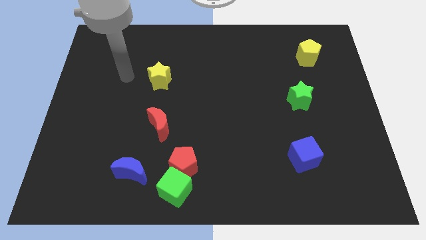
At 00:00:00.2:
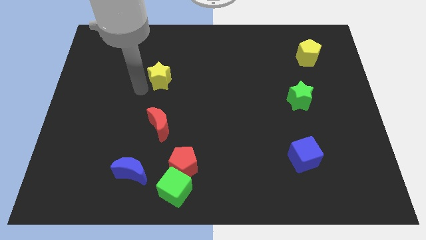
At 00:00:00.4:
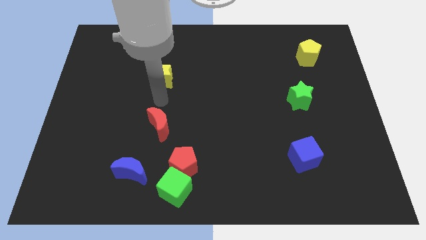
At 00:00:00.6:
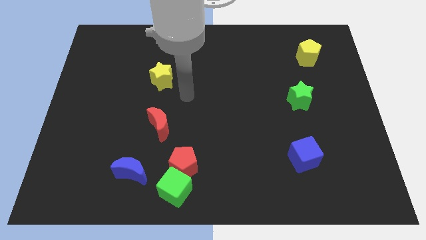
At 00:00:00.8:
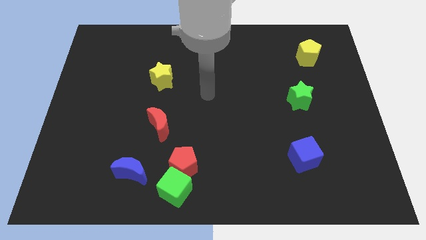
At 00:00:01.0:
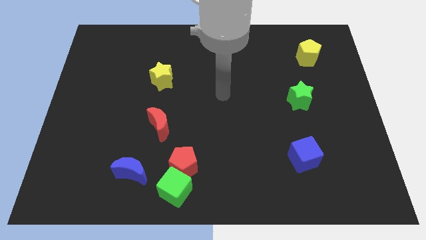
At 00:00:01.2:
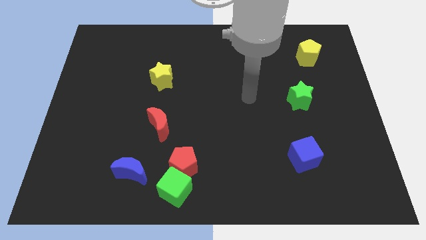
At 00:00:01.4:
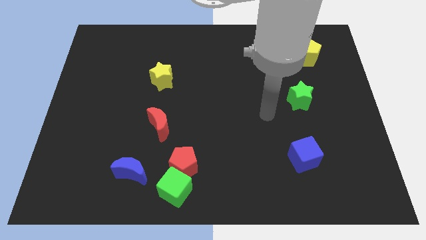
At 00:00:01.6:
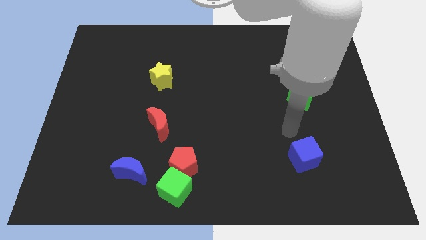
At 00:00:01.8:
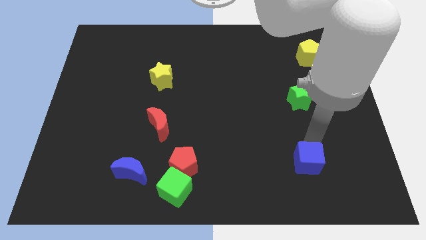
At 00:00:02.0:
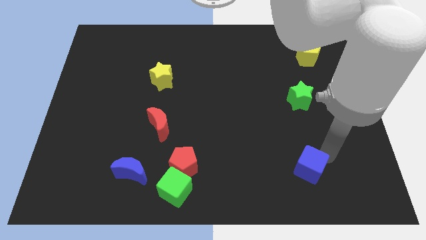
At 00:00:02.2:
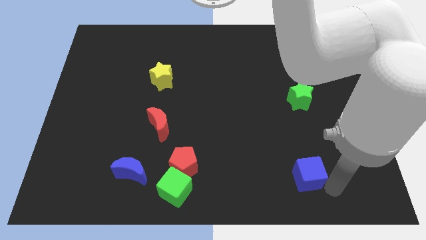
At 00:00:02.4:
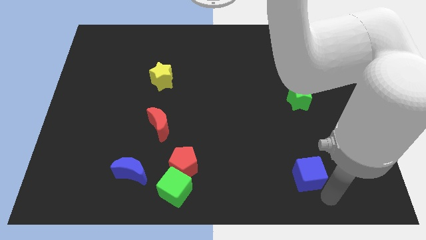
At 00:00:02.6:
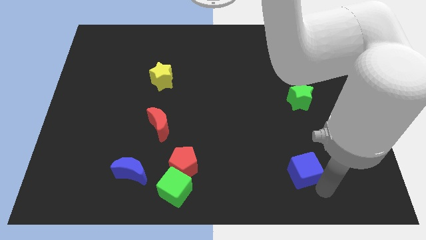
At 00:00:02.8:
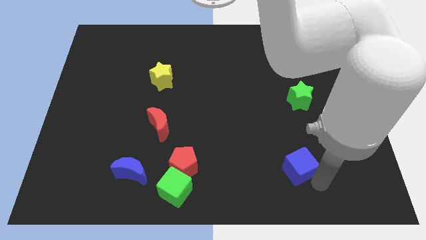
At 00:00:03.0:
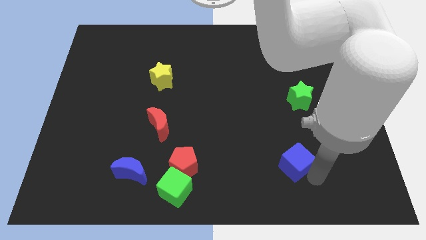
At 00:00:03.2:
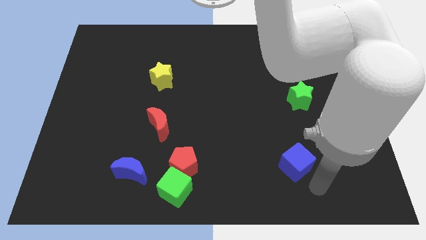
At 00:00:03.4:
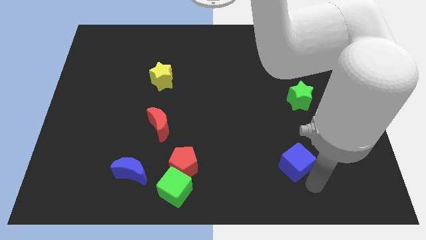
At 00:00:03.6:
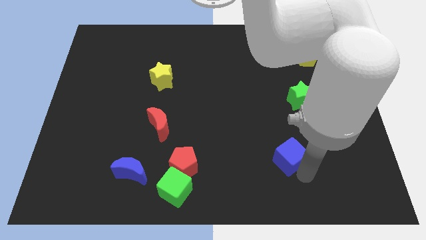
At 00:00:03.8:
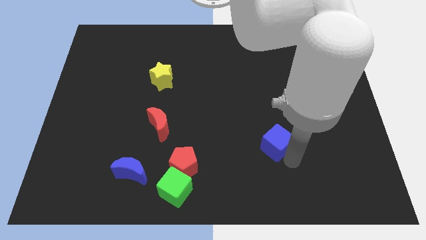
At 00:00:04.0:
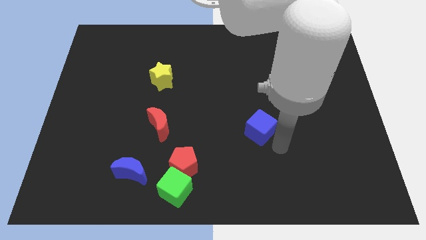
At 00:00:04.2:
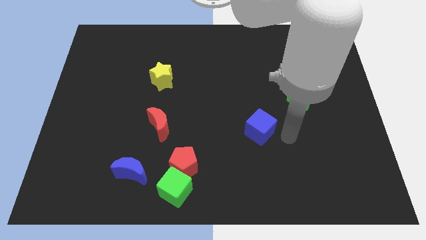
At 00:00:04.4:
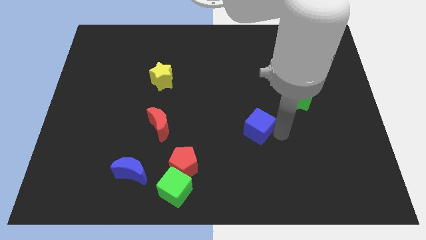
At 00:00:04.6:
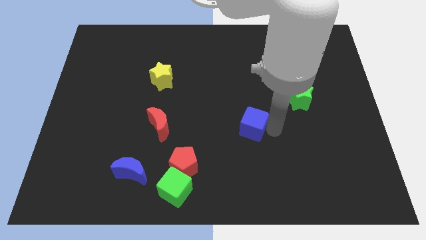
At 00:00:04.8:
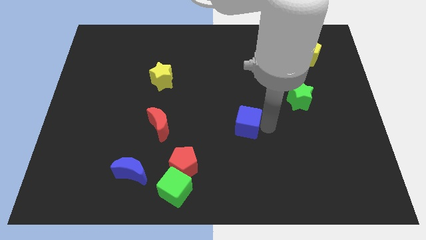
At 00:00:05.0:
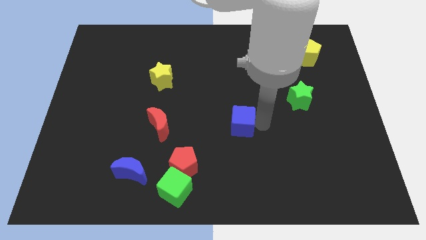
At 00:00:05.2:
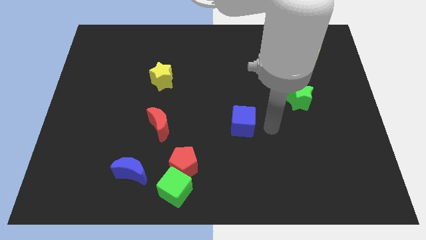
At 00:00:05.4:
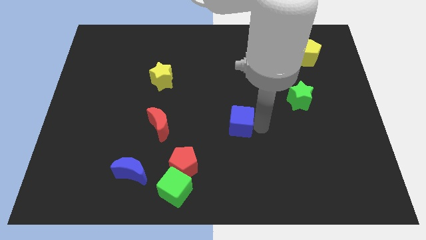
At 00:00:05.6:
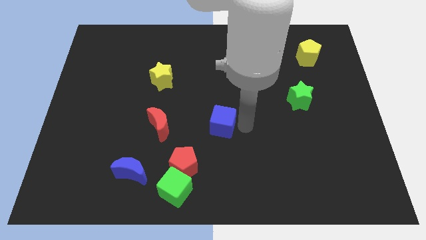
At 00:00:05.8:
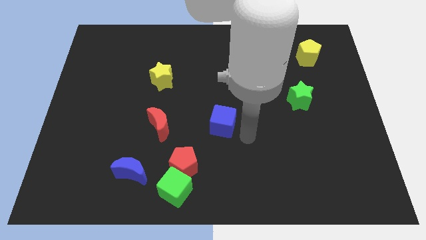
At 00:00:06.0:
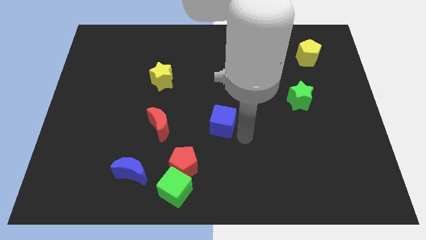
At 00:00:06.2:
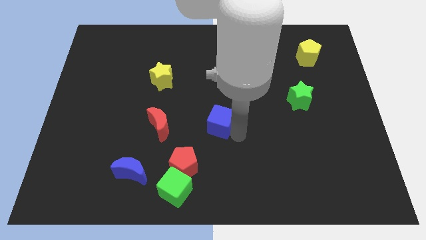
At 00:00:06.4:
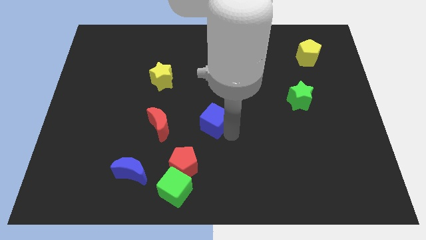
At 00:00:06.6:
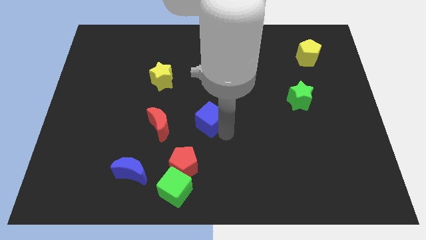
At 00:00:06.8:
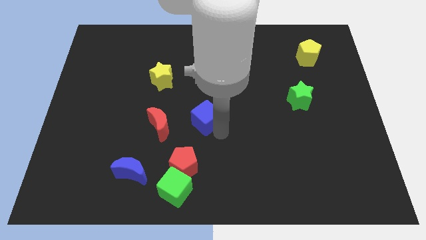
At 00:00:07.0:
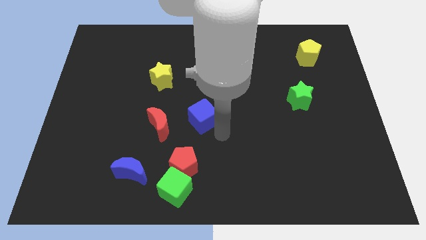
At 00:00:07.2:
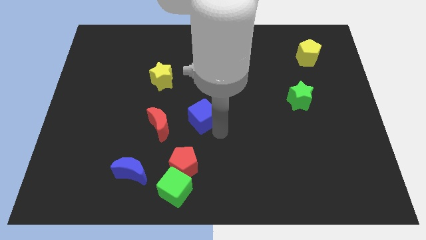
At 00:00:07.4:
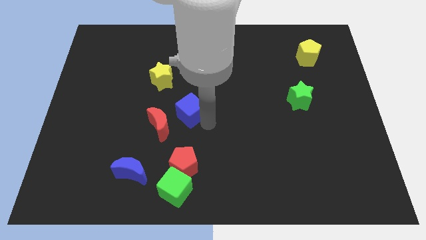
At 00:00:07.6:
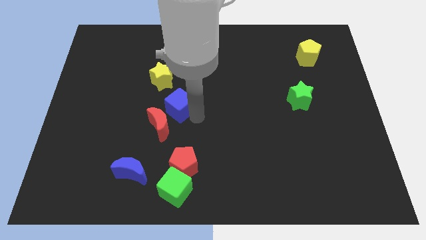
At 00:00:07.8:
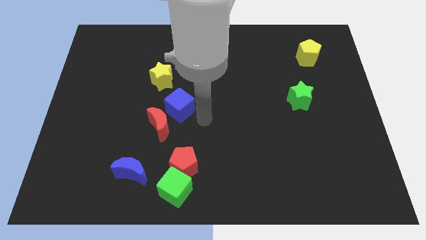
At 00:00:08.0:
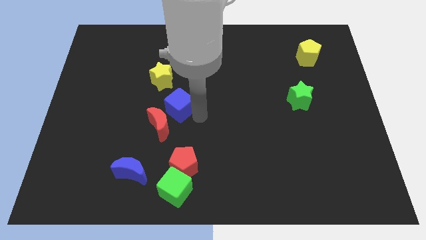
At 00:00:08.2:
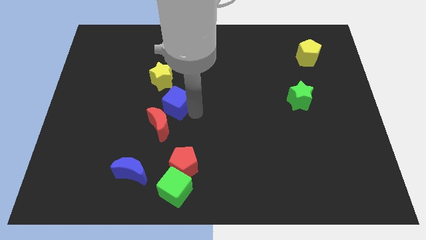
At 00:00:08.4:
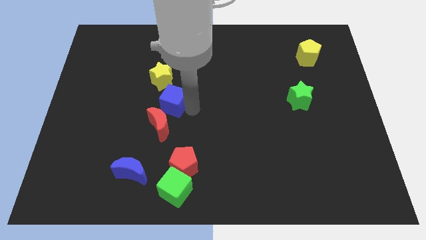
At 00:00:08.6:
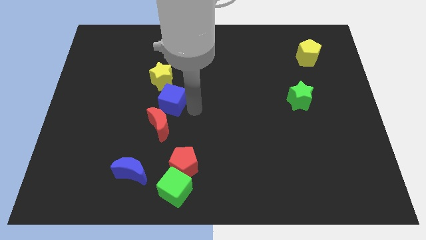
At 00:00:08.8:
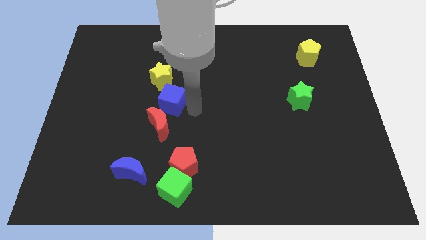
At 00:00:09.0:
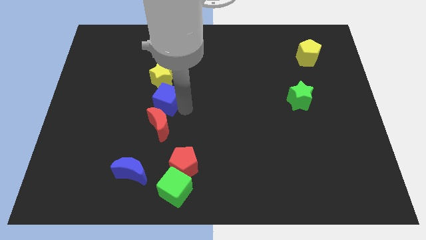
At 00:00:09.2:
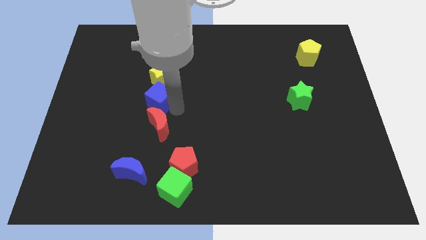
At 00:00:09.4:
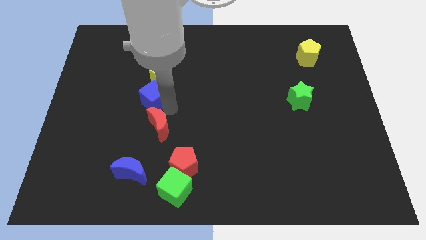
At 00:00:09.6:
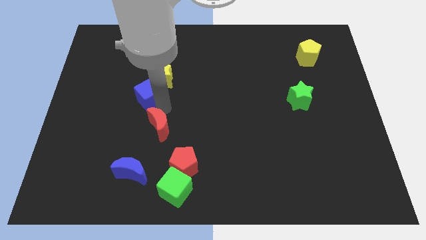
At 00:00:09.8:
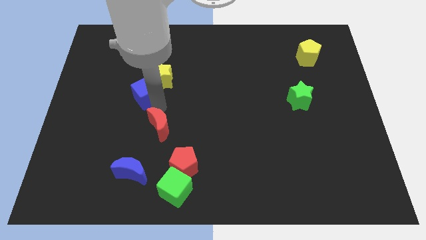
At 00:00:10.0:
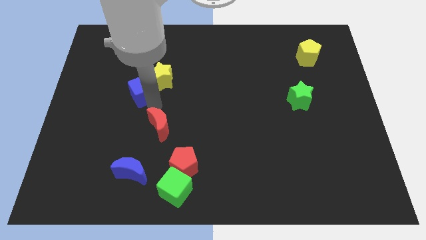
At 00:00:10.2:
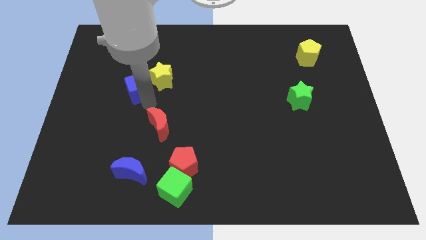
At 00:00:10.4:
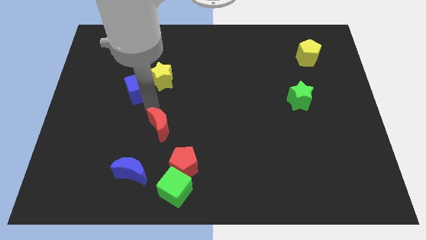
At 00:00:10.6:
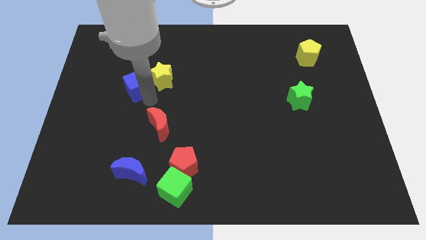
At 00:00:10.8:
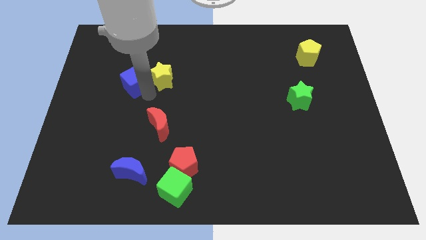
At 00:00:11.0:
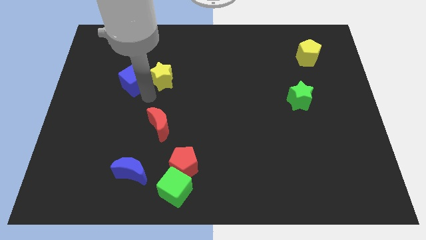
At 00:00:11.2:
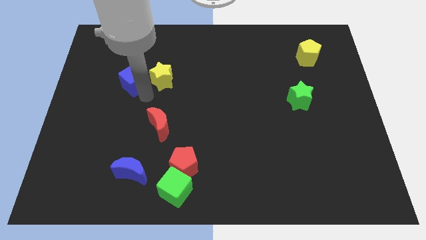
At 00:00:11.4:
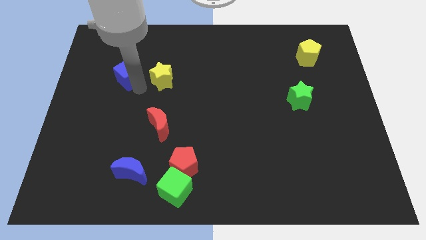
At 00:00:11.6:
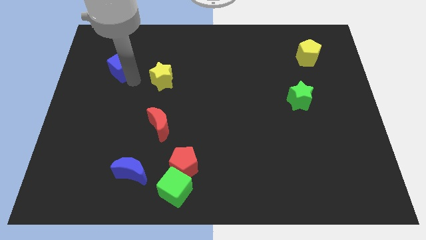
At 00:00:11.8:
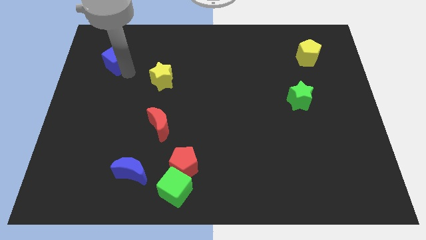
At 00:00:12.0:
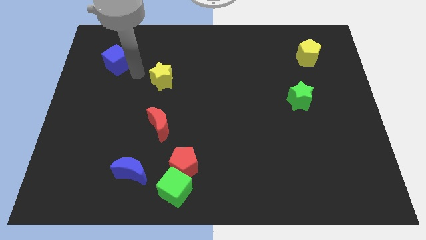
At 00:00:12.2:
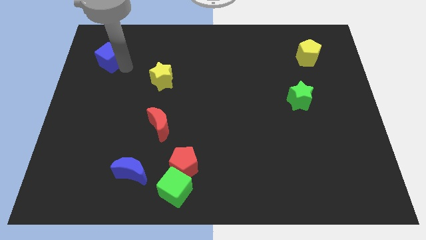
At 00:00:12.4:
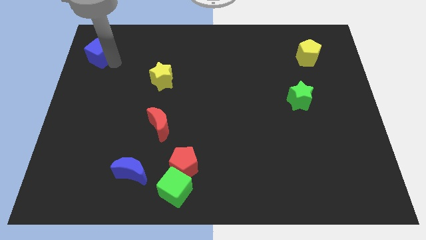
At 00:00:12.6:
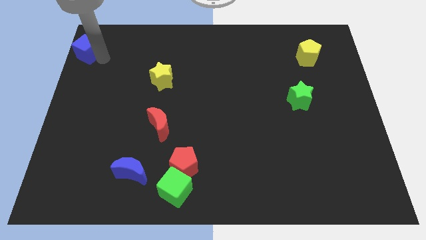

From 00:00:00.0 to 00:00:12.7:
put the blue cube to the upper left corner
